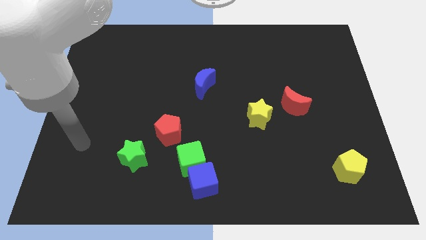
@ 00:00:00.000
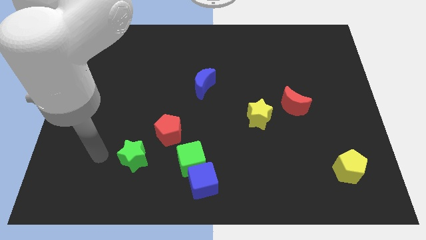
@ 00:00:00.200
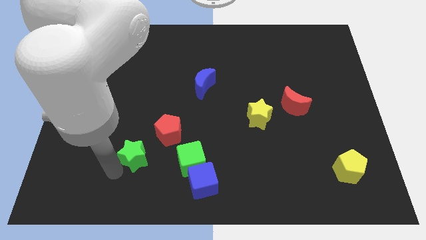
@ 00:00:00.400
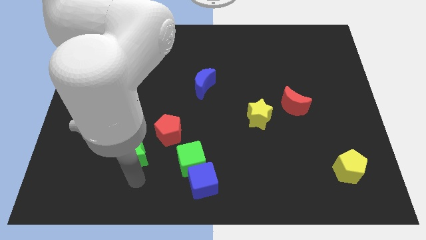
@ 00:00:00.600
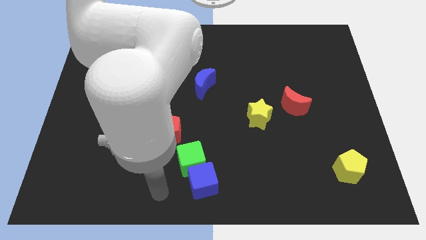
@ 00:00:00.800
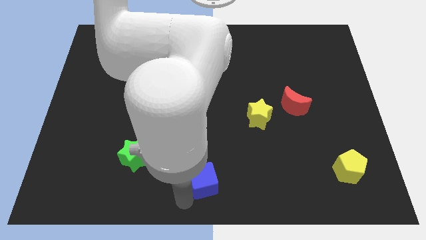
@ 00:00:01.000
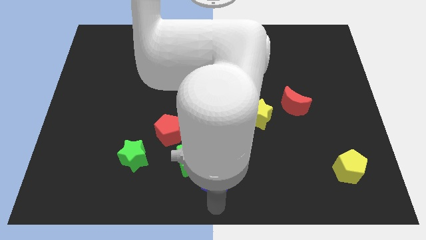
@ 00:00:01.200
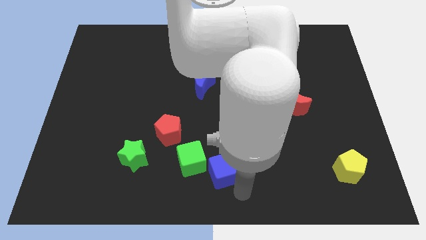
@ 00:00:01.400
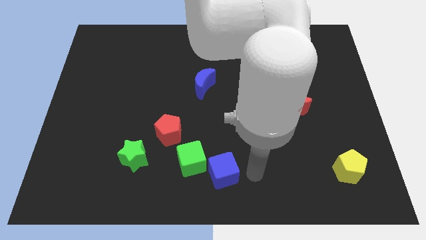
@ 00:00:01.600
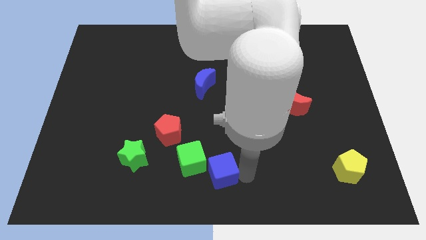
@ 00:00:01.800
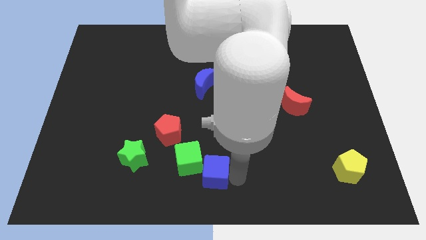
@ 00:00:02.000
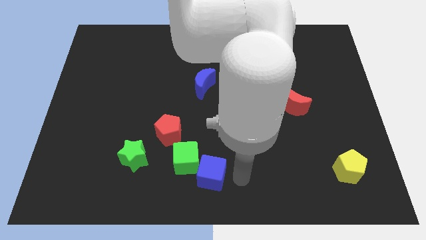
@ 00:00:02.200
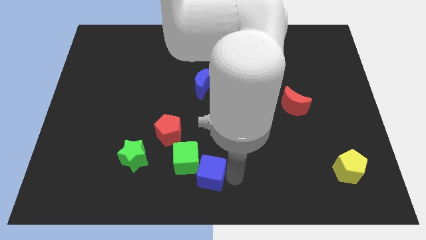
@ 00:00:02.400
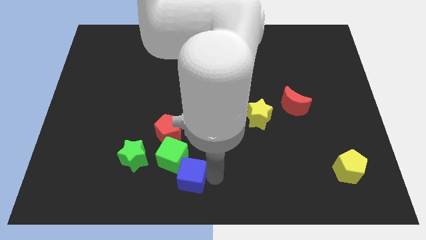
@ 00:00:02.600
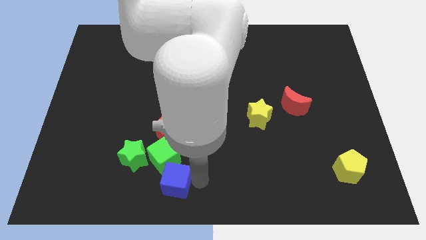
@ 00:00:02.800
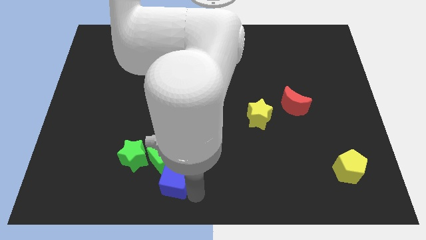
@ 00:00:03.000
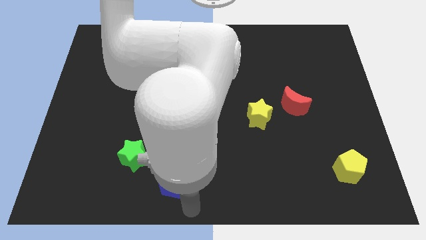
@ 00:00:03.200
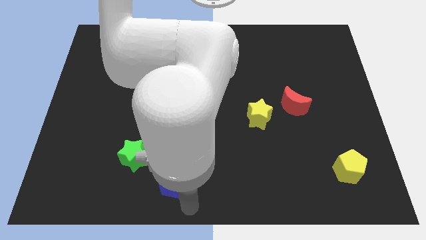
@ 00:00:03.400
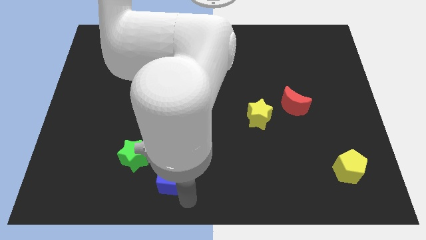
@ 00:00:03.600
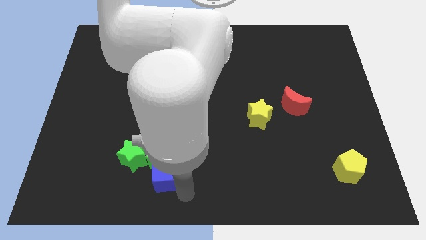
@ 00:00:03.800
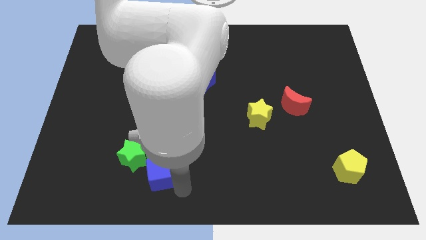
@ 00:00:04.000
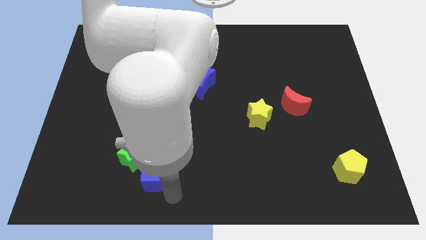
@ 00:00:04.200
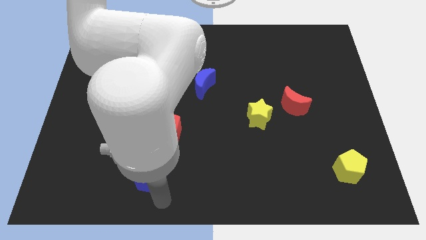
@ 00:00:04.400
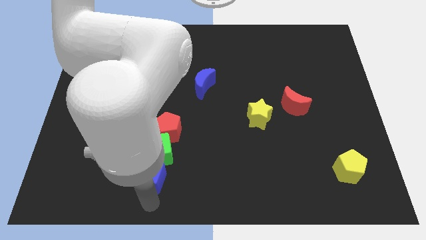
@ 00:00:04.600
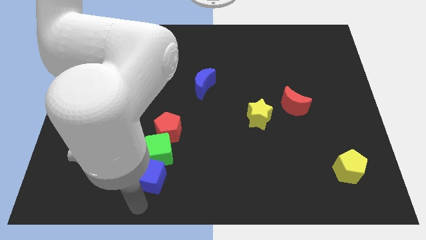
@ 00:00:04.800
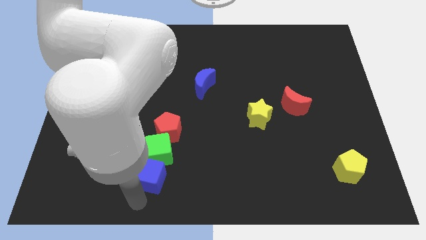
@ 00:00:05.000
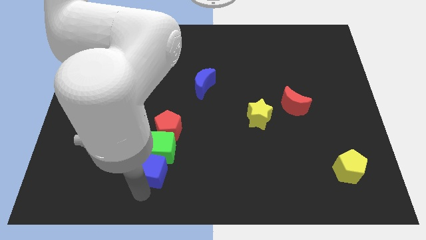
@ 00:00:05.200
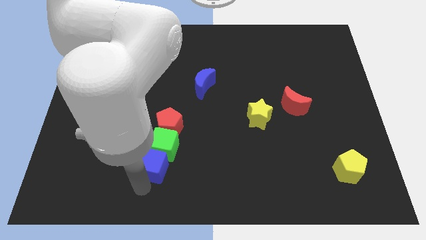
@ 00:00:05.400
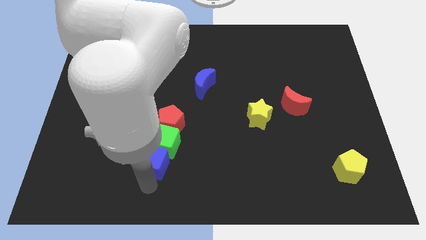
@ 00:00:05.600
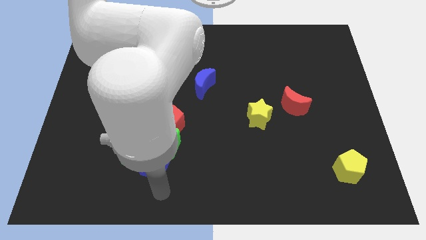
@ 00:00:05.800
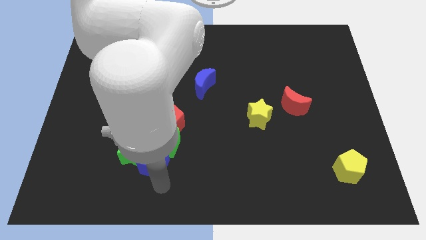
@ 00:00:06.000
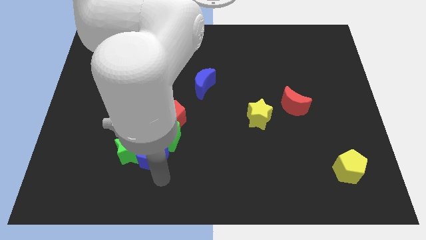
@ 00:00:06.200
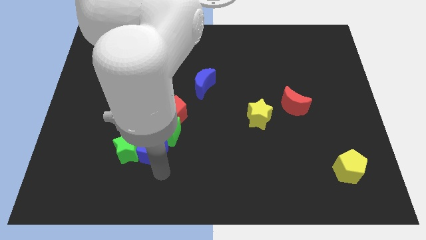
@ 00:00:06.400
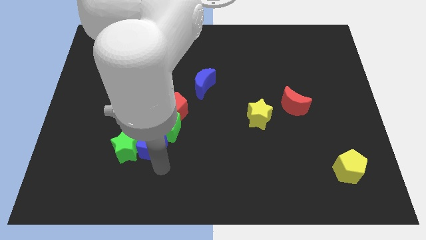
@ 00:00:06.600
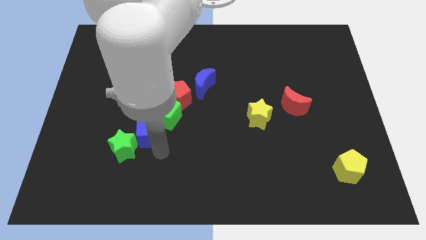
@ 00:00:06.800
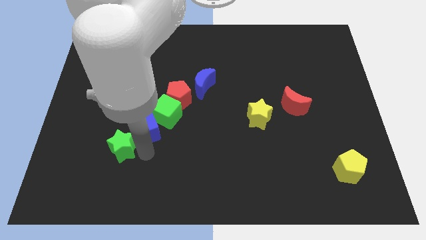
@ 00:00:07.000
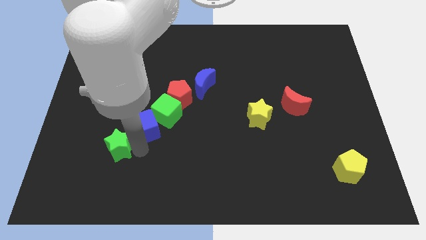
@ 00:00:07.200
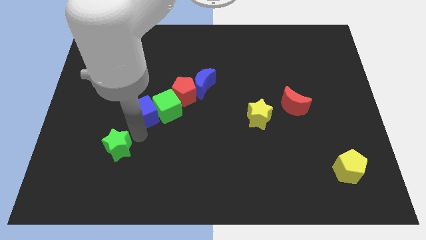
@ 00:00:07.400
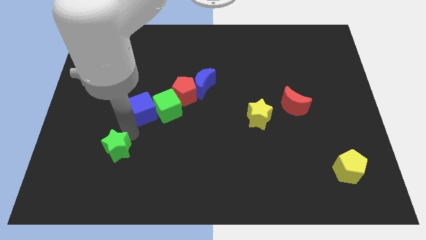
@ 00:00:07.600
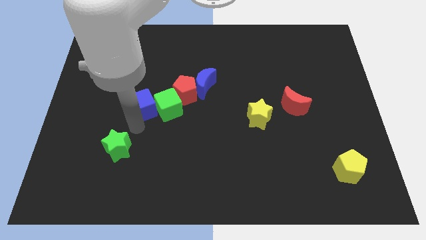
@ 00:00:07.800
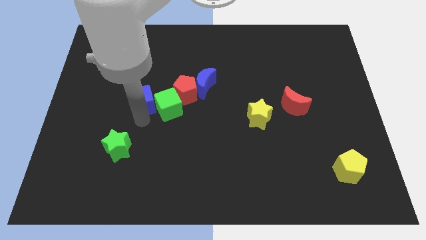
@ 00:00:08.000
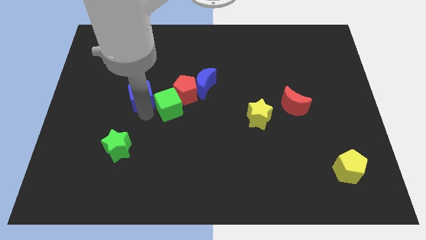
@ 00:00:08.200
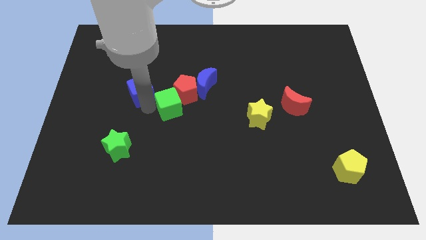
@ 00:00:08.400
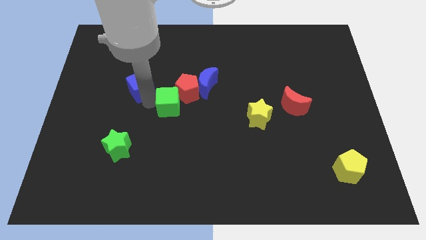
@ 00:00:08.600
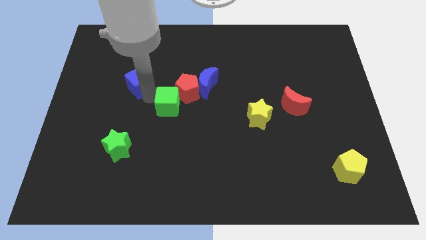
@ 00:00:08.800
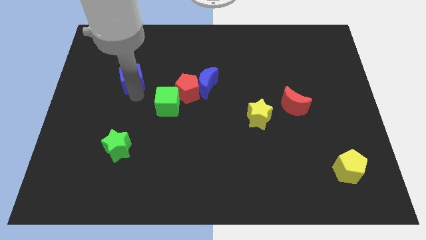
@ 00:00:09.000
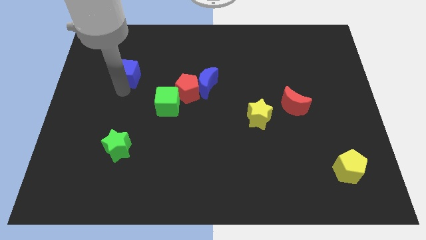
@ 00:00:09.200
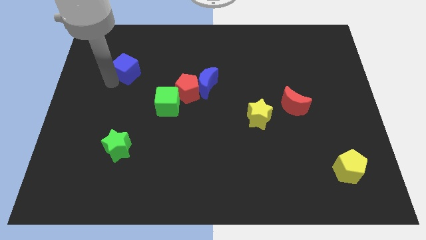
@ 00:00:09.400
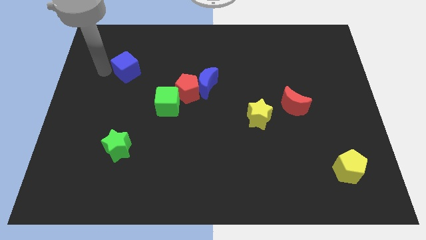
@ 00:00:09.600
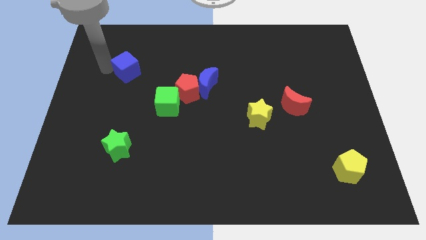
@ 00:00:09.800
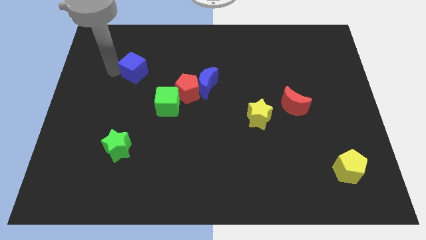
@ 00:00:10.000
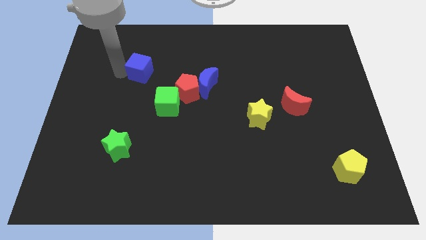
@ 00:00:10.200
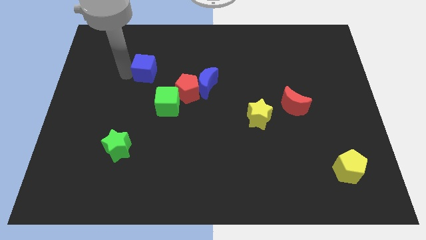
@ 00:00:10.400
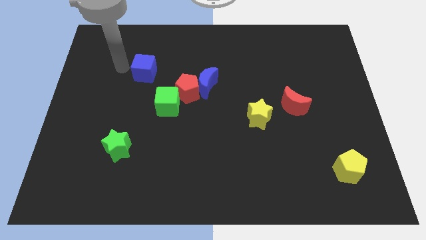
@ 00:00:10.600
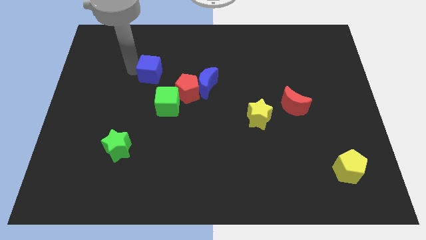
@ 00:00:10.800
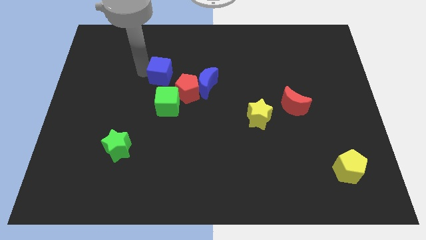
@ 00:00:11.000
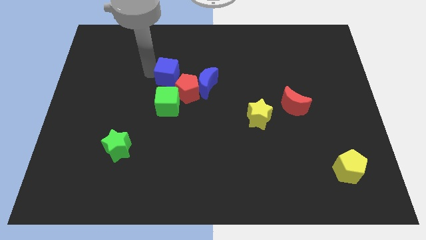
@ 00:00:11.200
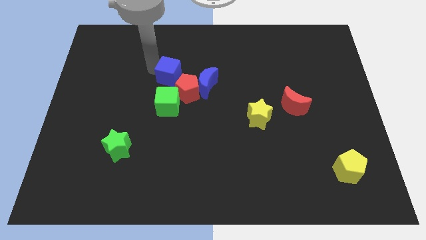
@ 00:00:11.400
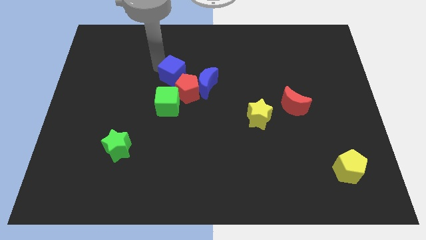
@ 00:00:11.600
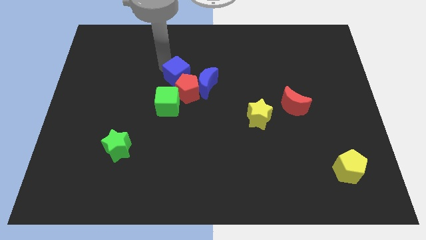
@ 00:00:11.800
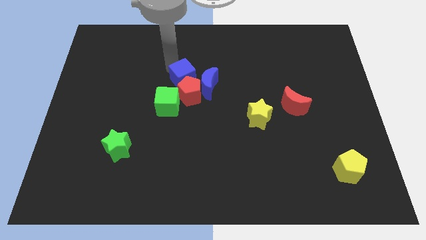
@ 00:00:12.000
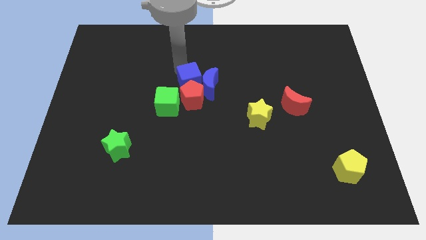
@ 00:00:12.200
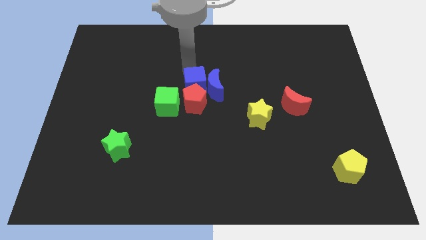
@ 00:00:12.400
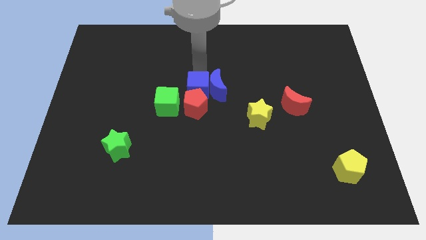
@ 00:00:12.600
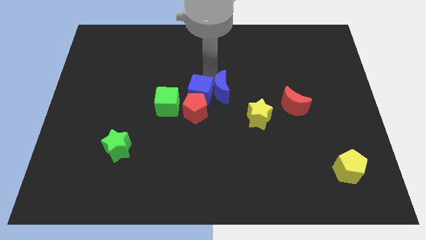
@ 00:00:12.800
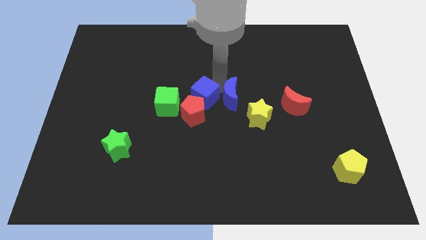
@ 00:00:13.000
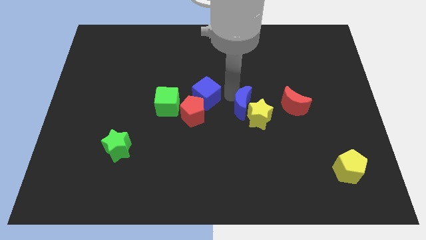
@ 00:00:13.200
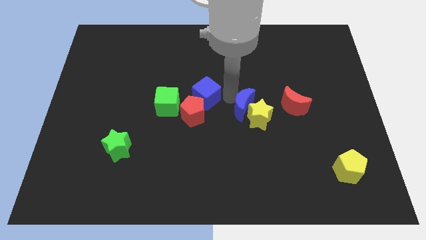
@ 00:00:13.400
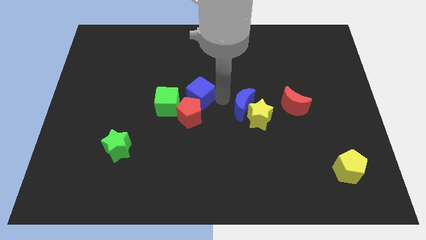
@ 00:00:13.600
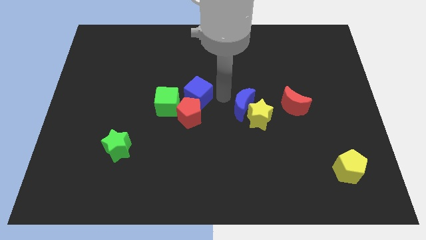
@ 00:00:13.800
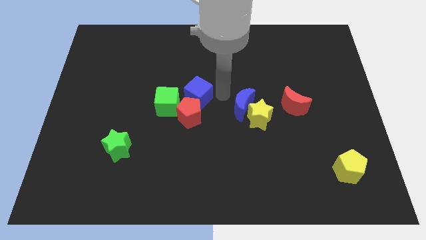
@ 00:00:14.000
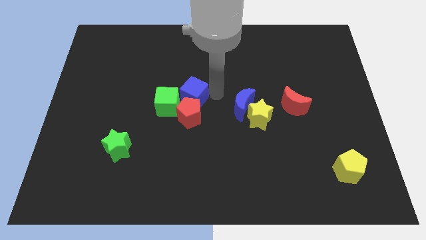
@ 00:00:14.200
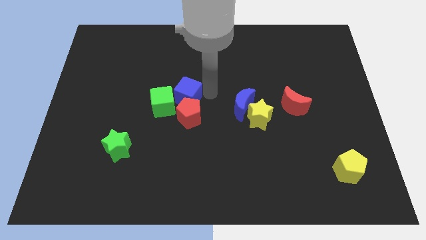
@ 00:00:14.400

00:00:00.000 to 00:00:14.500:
push the blue cube to the top left of the red pentagon
